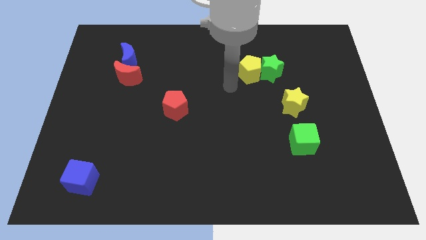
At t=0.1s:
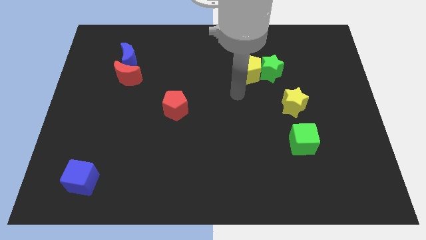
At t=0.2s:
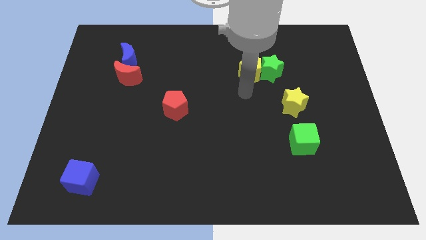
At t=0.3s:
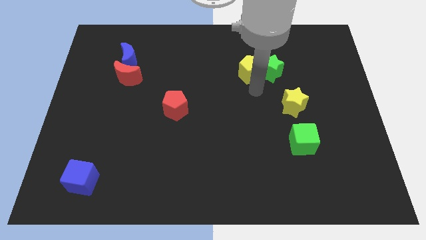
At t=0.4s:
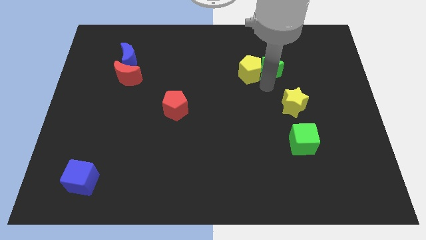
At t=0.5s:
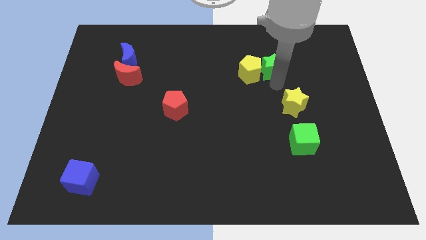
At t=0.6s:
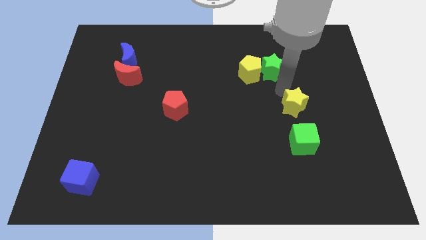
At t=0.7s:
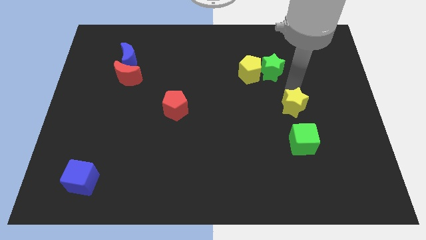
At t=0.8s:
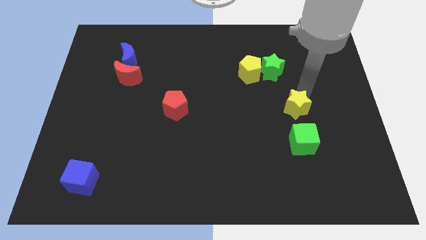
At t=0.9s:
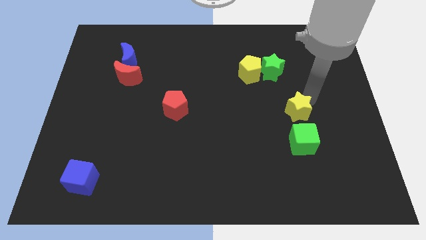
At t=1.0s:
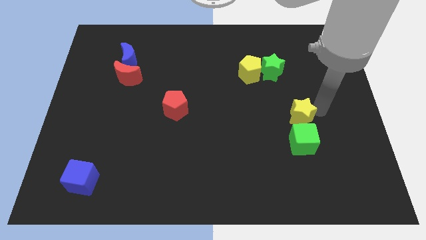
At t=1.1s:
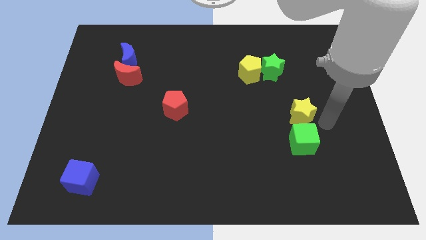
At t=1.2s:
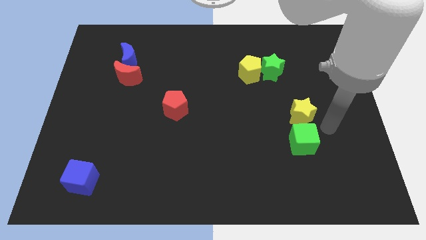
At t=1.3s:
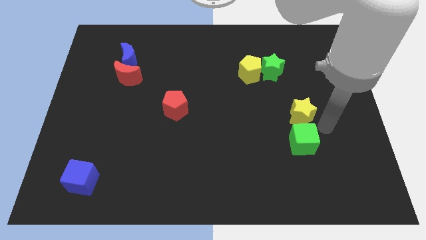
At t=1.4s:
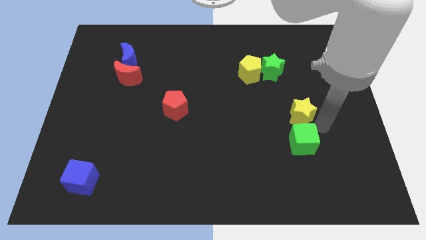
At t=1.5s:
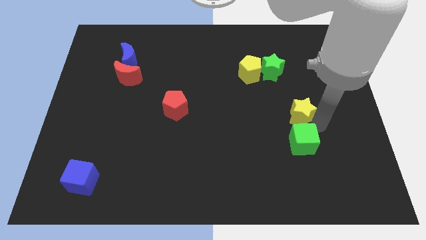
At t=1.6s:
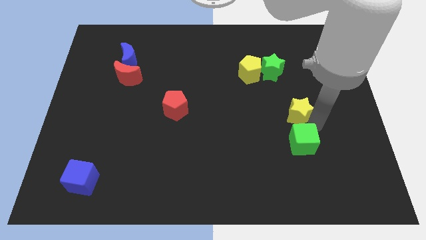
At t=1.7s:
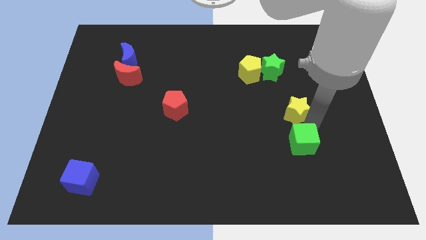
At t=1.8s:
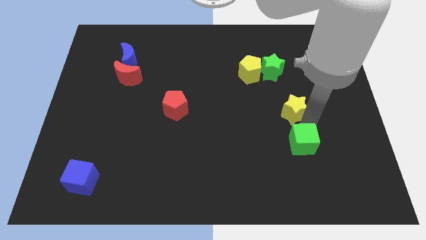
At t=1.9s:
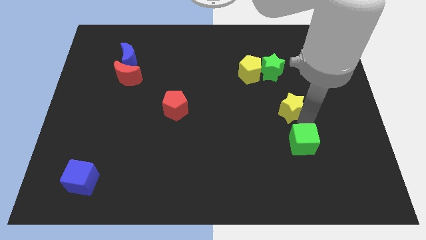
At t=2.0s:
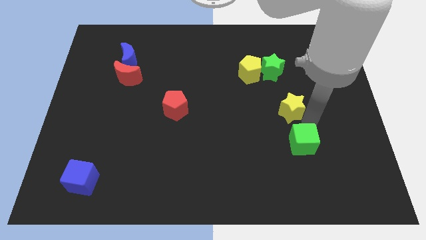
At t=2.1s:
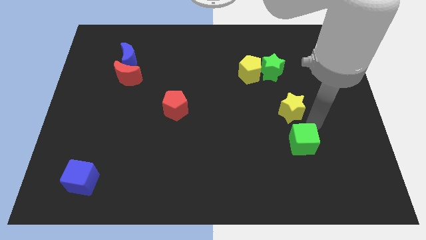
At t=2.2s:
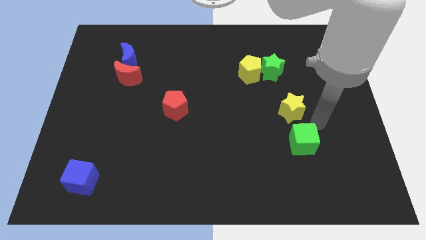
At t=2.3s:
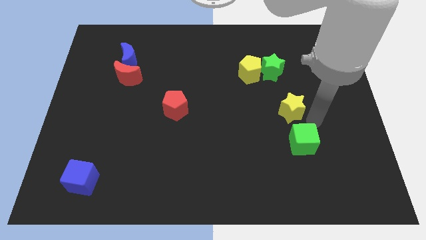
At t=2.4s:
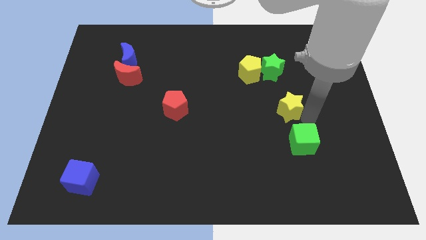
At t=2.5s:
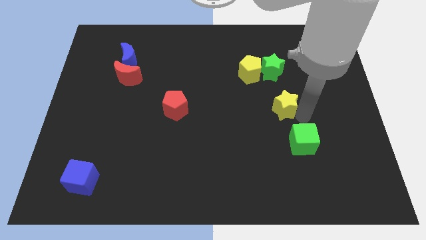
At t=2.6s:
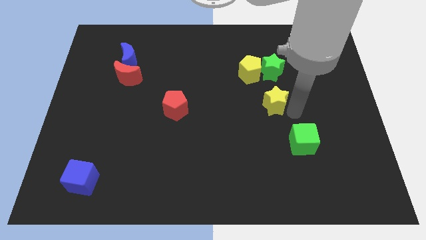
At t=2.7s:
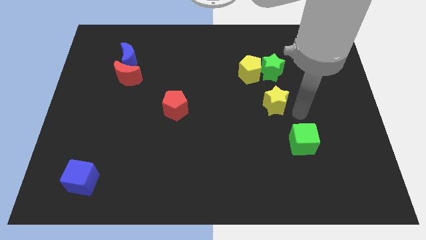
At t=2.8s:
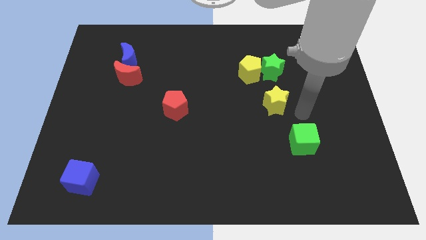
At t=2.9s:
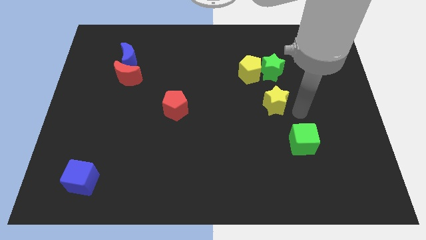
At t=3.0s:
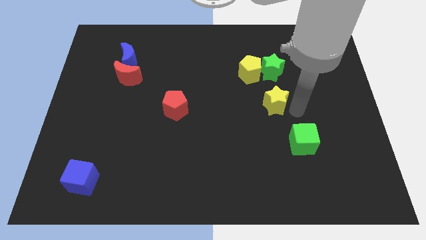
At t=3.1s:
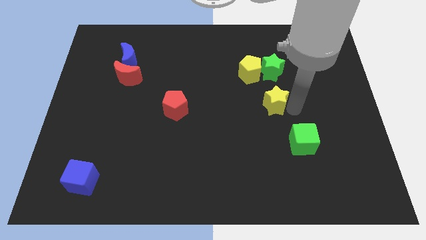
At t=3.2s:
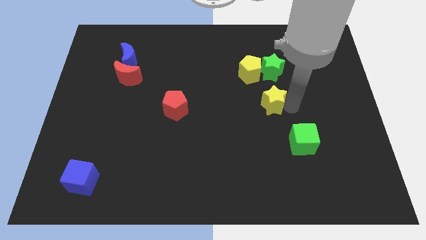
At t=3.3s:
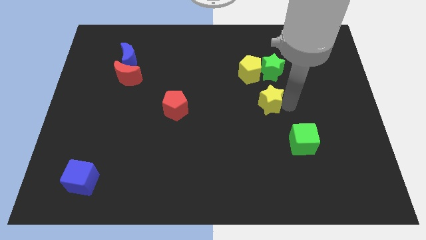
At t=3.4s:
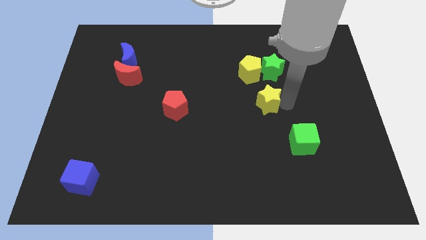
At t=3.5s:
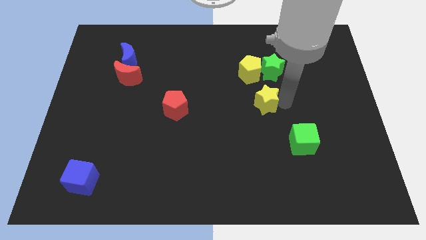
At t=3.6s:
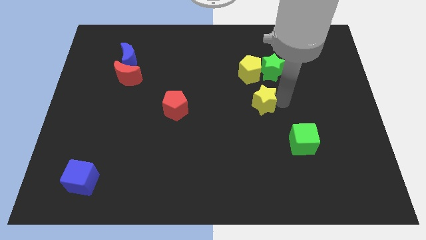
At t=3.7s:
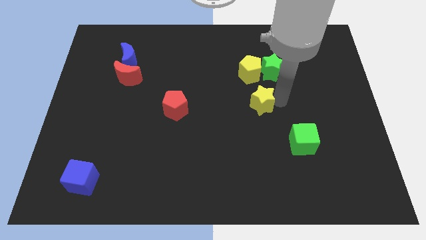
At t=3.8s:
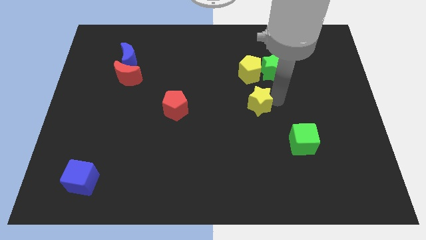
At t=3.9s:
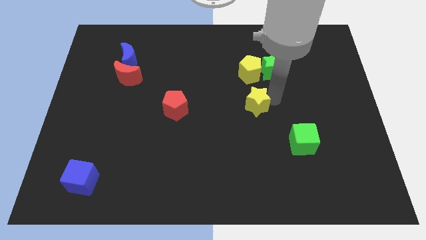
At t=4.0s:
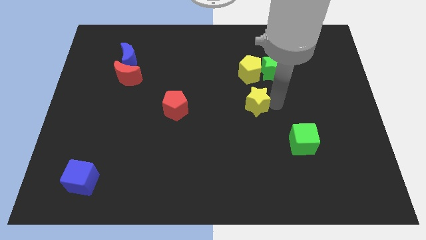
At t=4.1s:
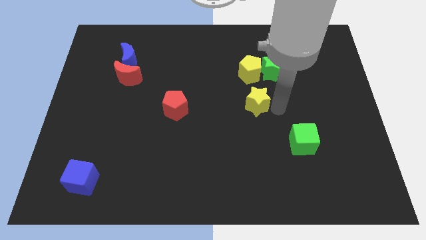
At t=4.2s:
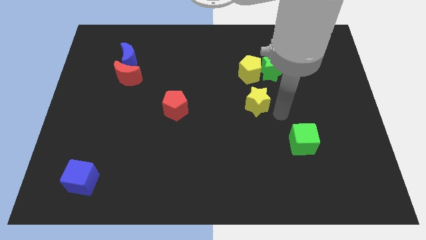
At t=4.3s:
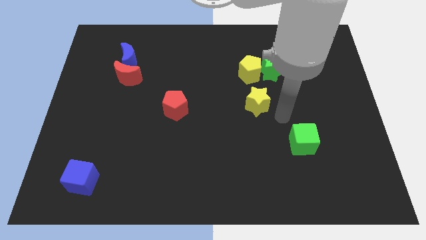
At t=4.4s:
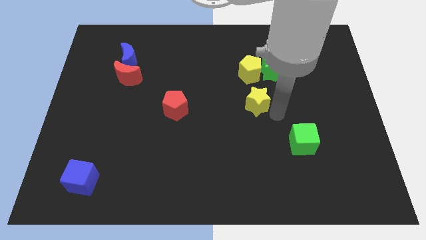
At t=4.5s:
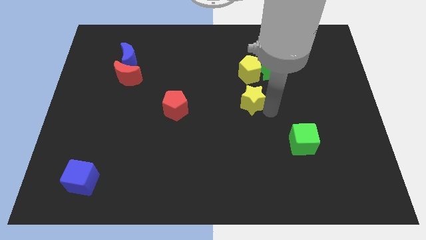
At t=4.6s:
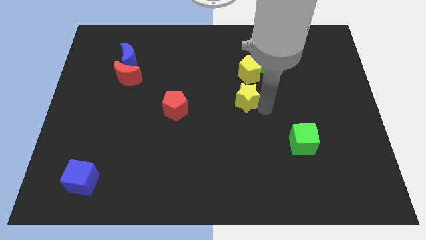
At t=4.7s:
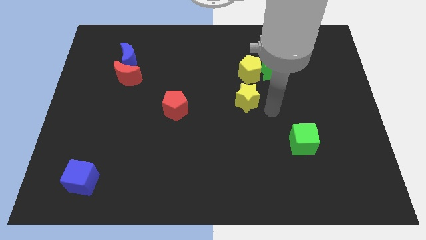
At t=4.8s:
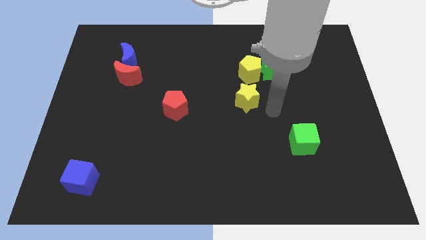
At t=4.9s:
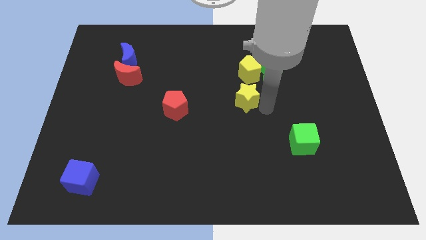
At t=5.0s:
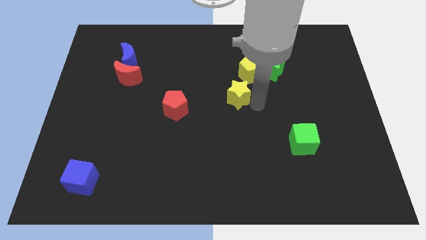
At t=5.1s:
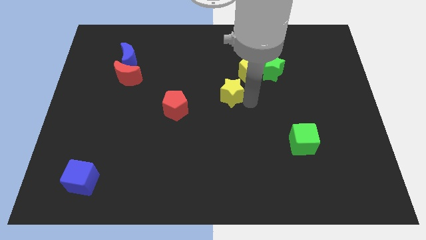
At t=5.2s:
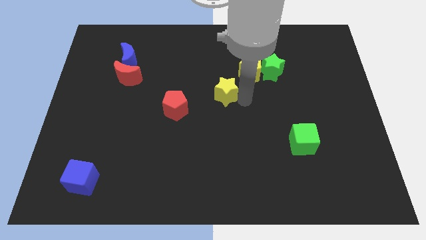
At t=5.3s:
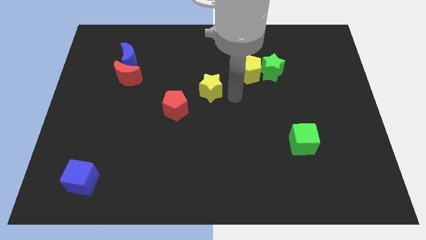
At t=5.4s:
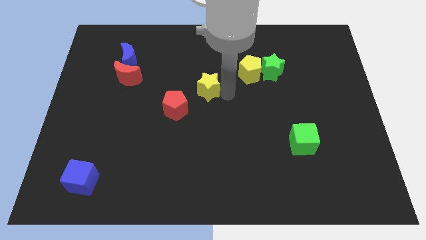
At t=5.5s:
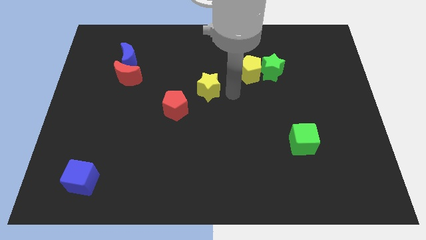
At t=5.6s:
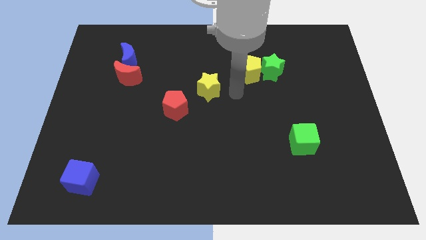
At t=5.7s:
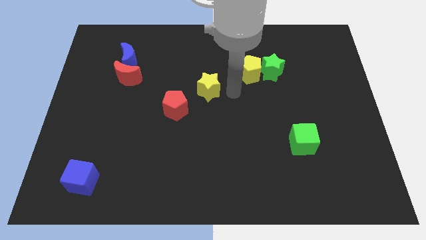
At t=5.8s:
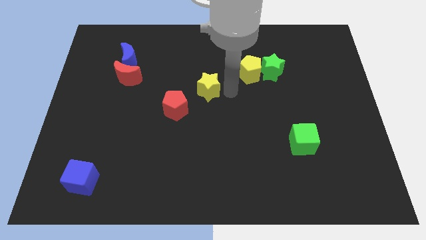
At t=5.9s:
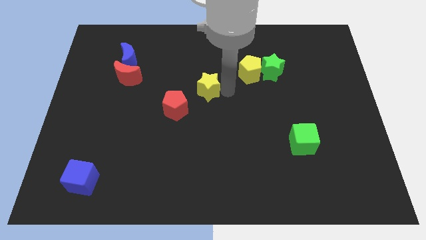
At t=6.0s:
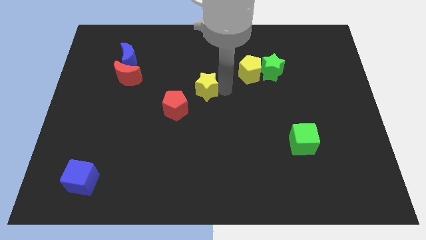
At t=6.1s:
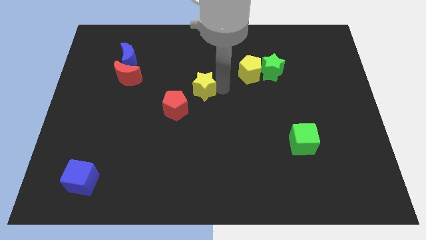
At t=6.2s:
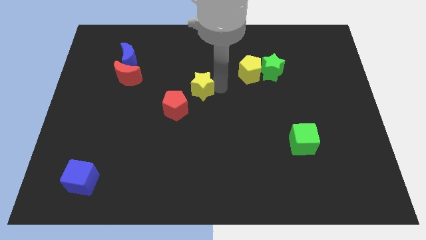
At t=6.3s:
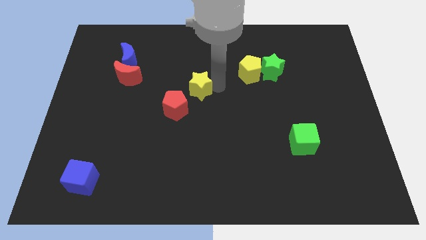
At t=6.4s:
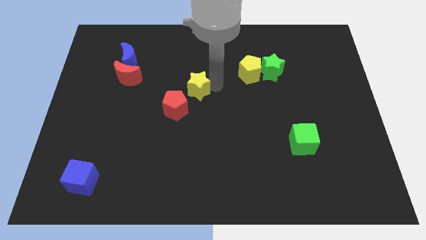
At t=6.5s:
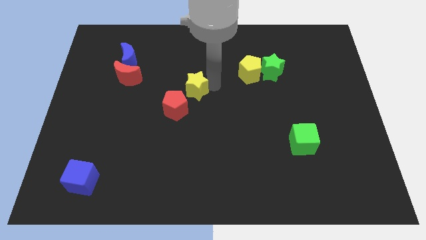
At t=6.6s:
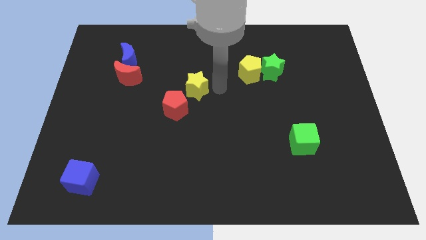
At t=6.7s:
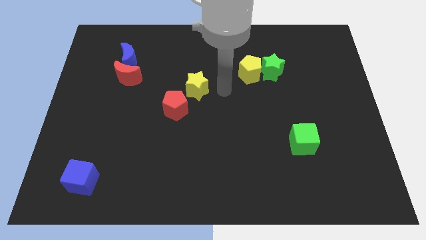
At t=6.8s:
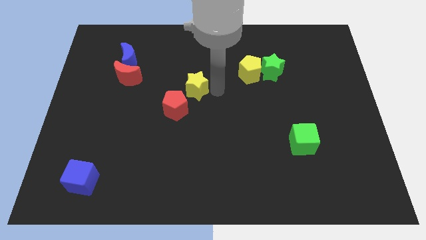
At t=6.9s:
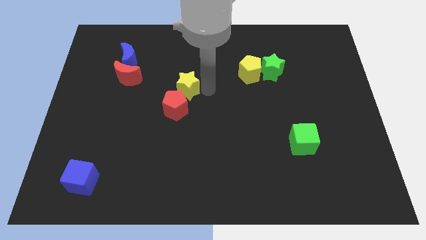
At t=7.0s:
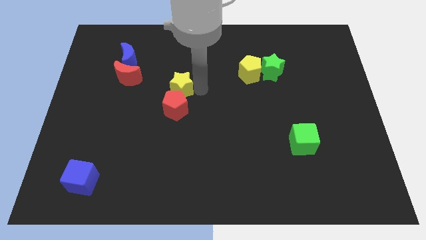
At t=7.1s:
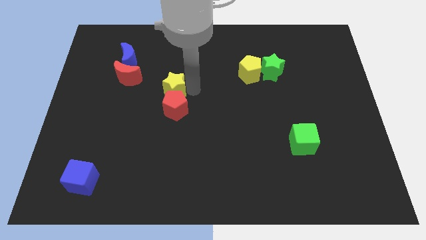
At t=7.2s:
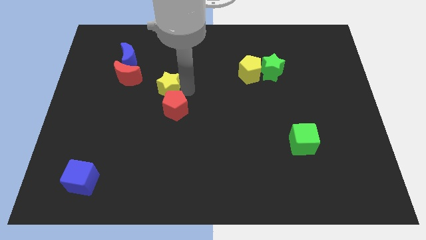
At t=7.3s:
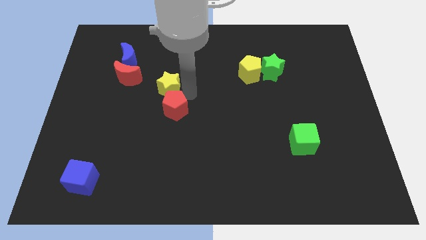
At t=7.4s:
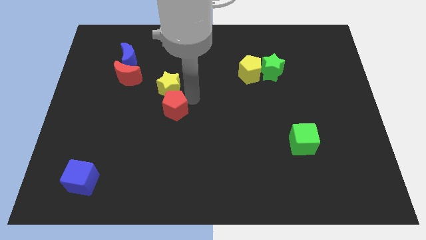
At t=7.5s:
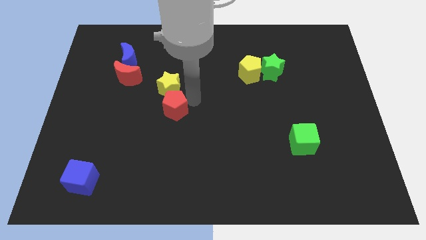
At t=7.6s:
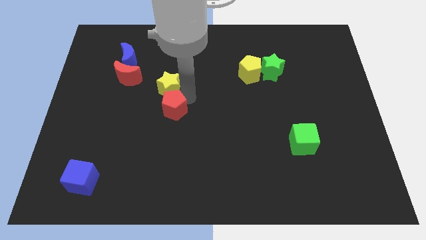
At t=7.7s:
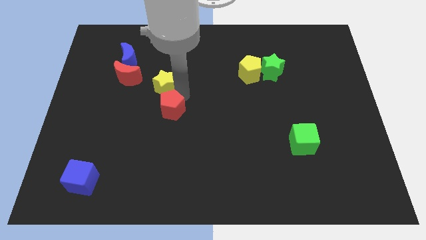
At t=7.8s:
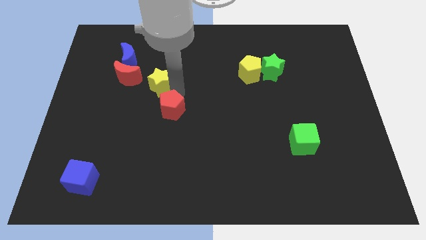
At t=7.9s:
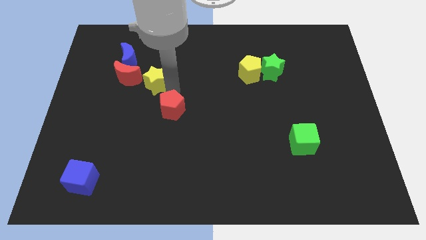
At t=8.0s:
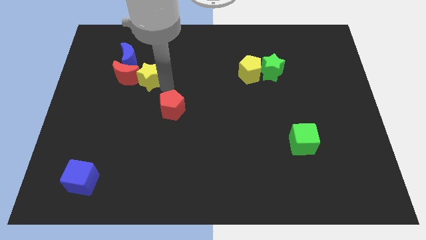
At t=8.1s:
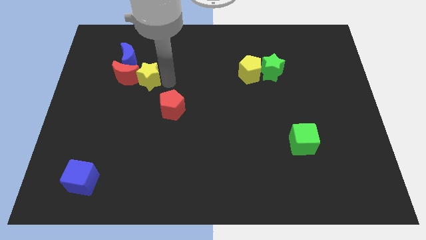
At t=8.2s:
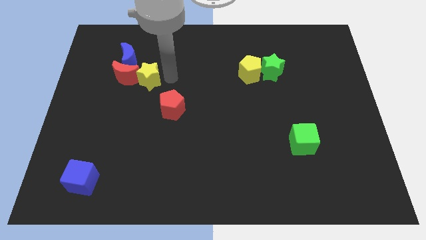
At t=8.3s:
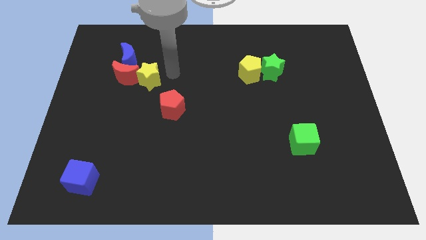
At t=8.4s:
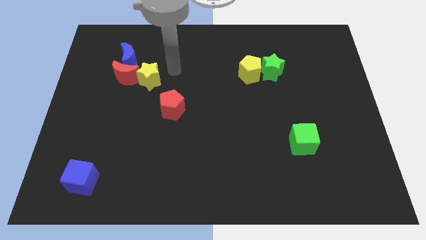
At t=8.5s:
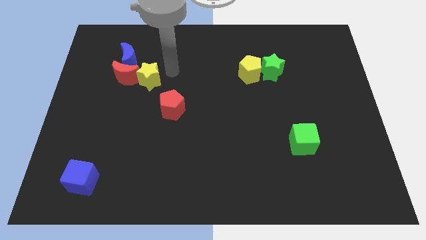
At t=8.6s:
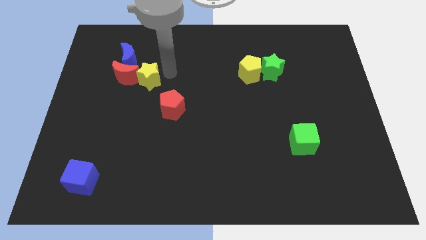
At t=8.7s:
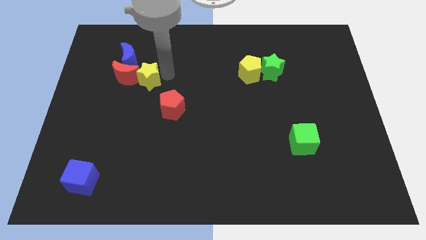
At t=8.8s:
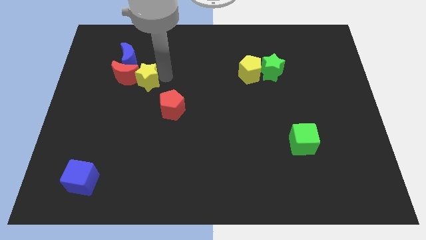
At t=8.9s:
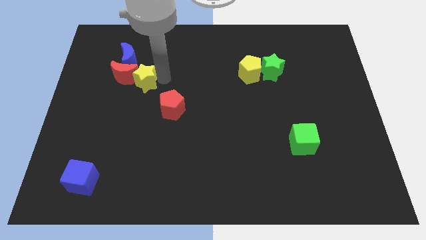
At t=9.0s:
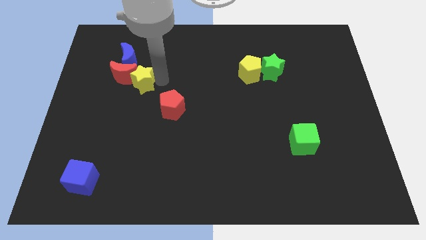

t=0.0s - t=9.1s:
slide the yellow star below the blue moon
